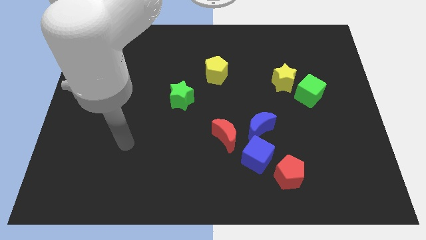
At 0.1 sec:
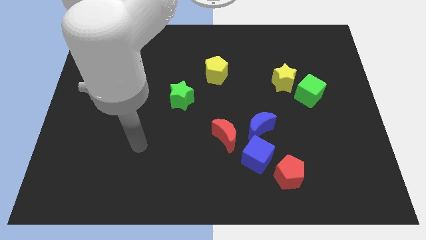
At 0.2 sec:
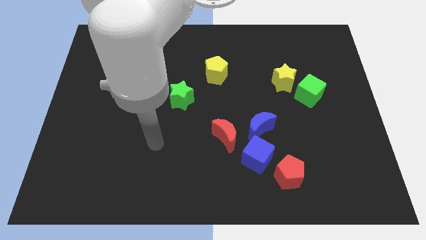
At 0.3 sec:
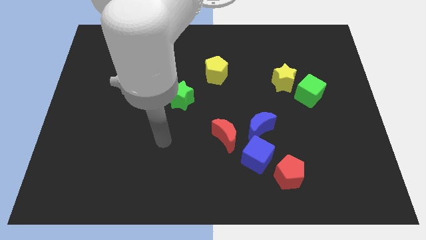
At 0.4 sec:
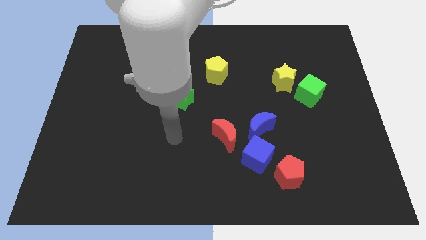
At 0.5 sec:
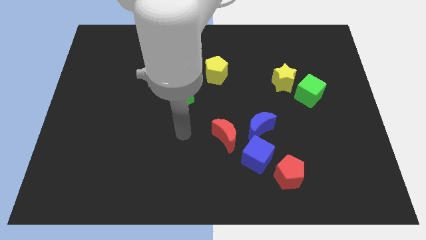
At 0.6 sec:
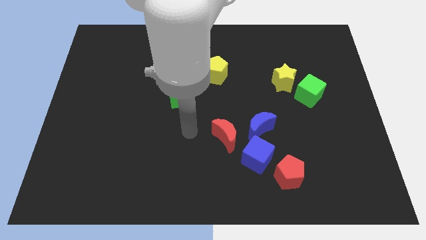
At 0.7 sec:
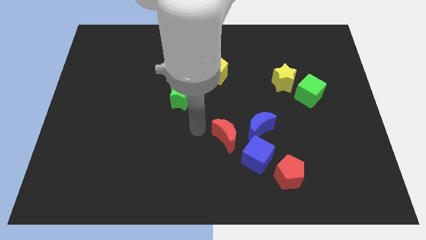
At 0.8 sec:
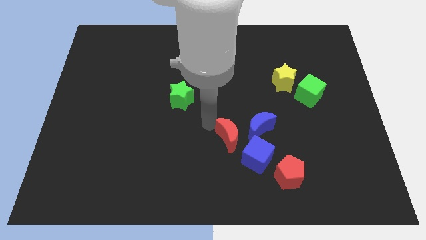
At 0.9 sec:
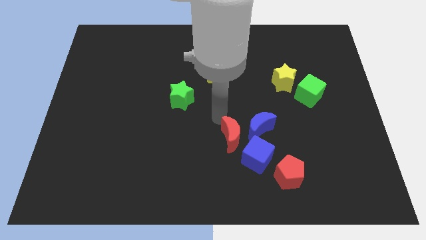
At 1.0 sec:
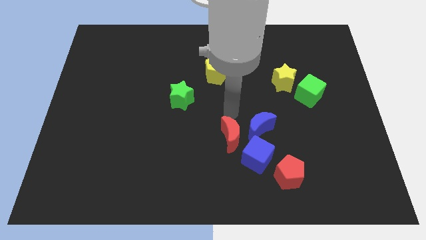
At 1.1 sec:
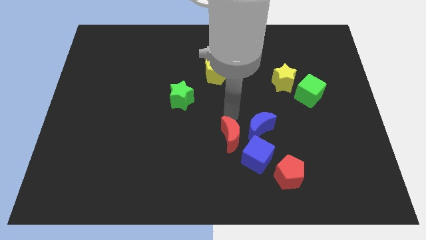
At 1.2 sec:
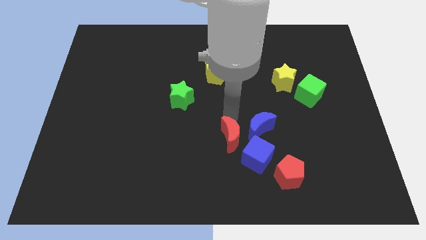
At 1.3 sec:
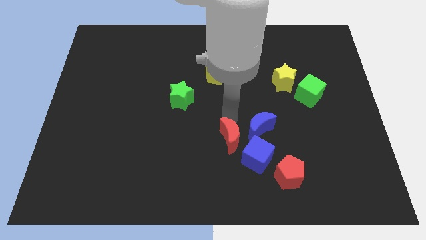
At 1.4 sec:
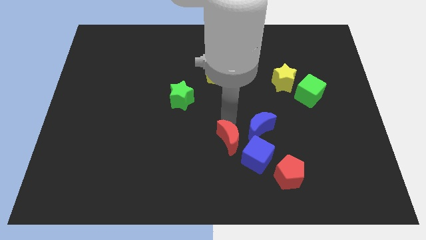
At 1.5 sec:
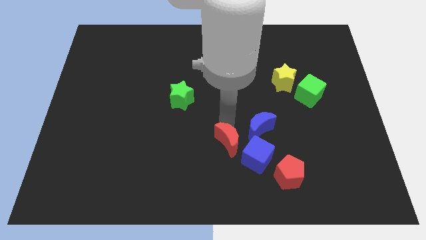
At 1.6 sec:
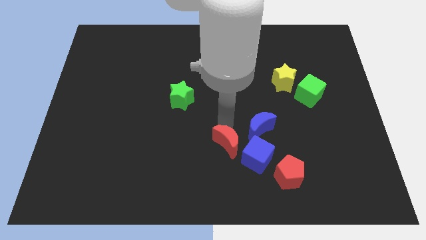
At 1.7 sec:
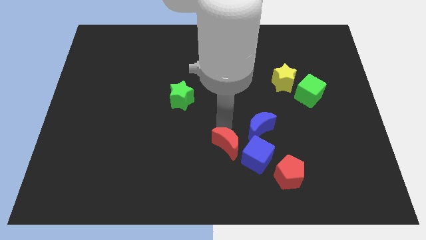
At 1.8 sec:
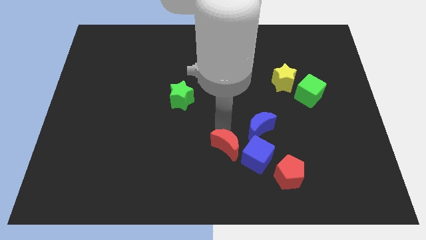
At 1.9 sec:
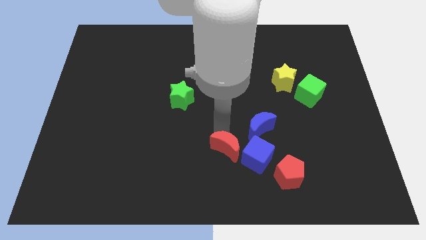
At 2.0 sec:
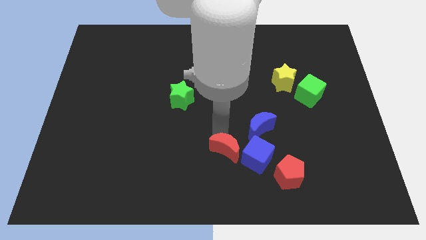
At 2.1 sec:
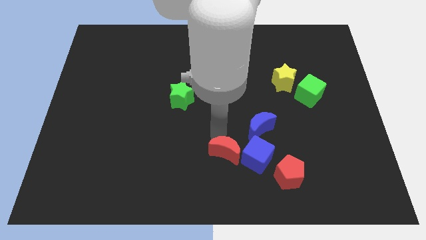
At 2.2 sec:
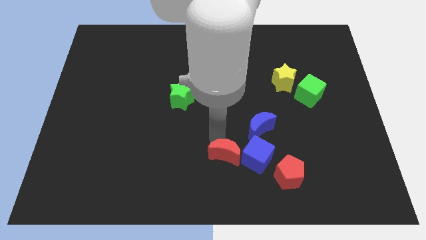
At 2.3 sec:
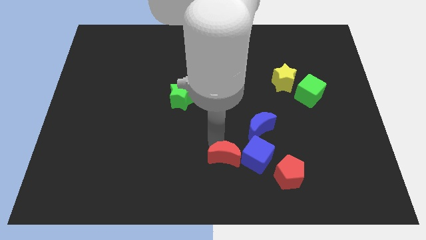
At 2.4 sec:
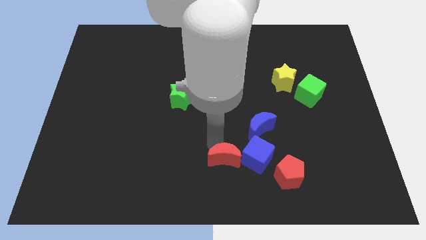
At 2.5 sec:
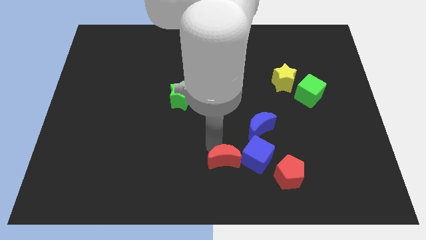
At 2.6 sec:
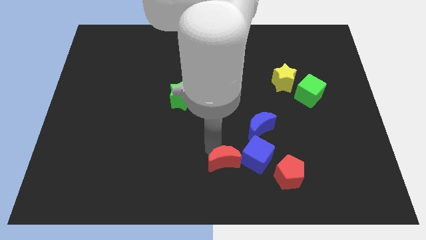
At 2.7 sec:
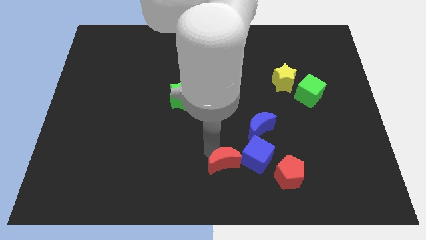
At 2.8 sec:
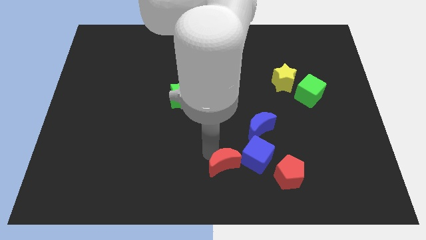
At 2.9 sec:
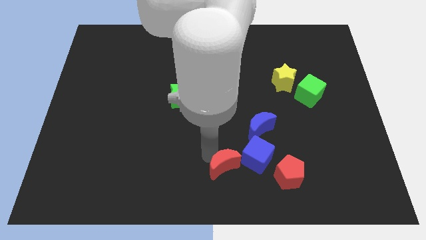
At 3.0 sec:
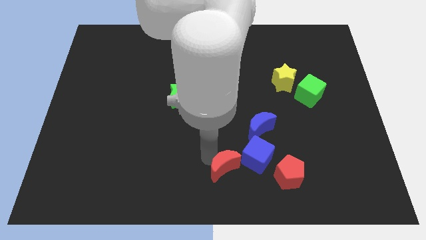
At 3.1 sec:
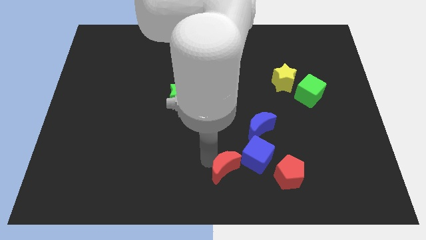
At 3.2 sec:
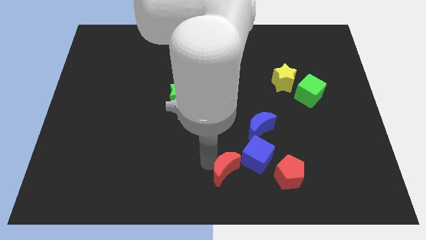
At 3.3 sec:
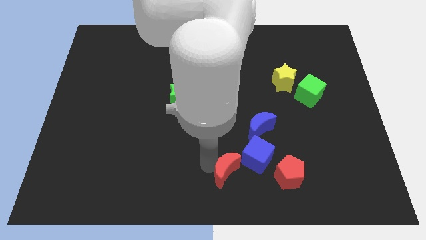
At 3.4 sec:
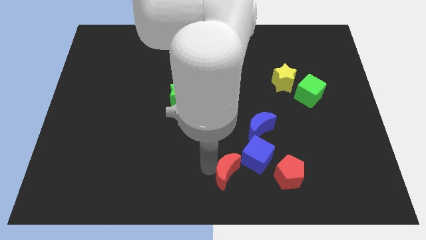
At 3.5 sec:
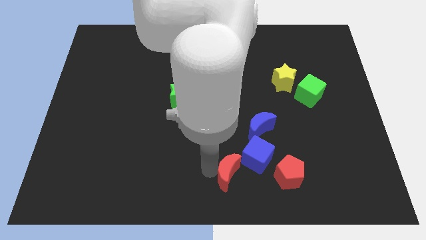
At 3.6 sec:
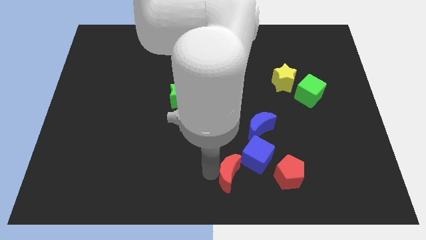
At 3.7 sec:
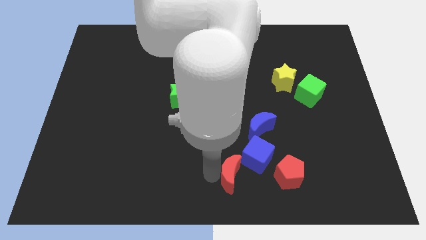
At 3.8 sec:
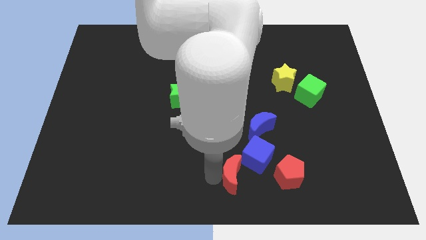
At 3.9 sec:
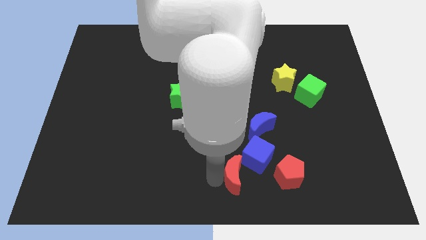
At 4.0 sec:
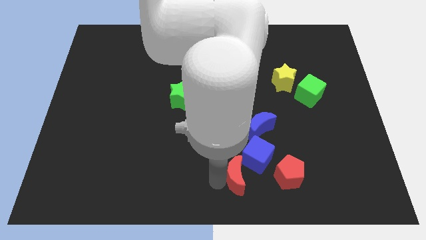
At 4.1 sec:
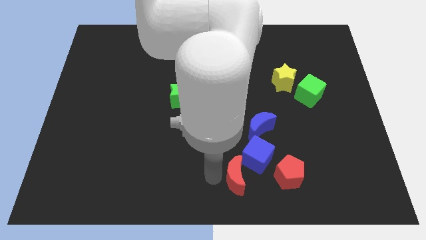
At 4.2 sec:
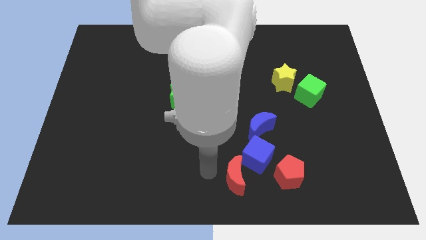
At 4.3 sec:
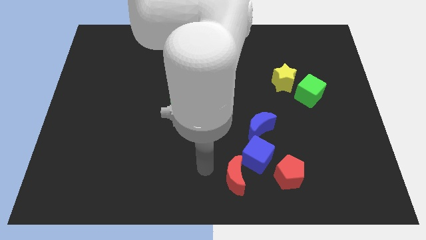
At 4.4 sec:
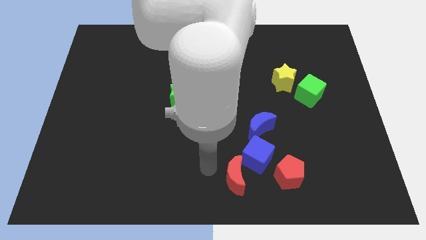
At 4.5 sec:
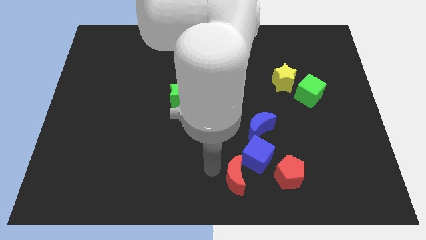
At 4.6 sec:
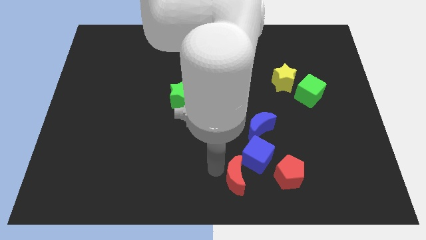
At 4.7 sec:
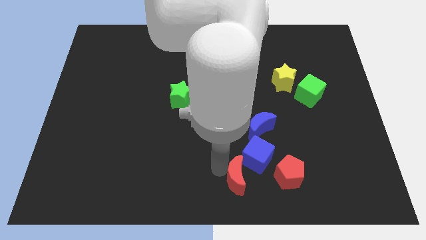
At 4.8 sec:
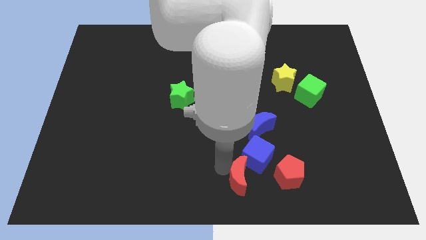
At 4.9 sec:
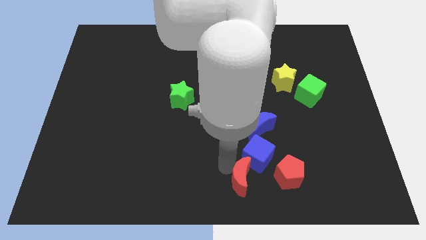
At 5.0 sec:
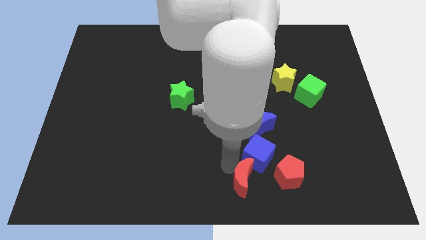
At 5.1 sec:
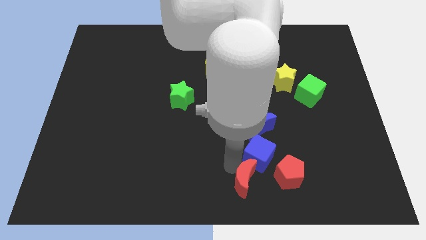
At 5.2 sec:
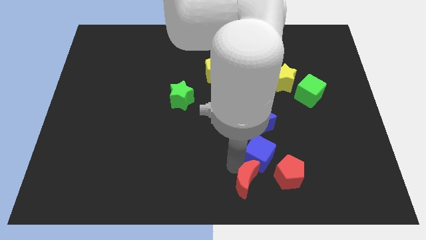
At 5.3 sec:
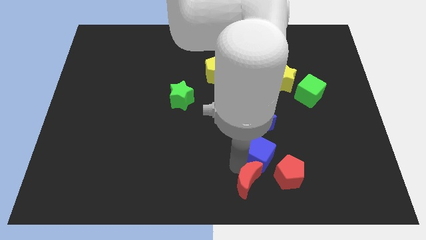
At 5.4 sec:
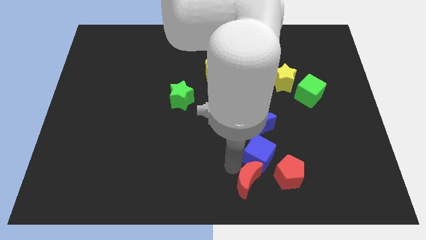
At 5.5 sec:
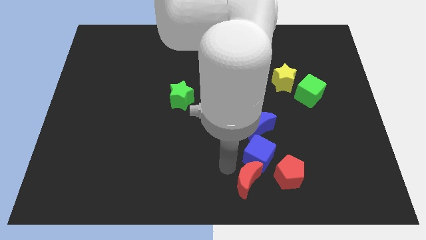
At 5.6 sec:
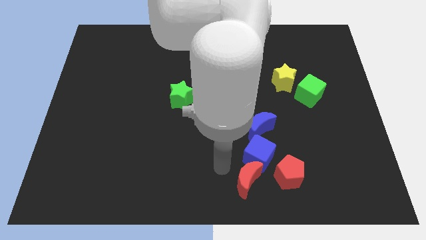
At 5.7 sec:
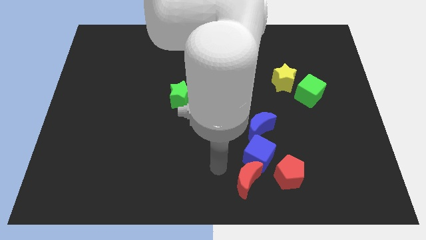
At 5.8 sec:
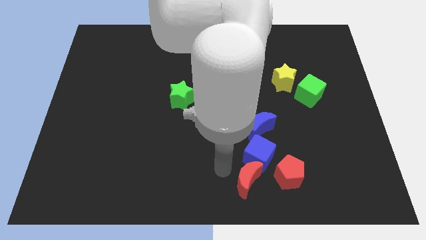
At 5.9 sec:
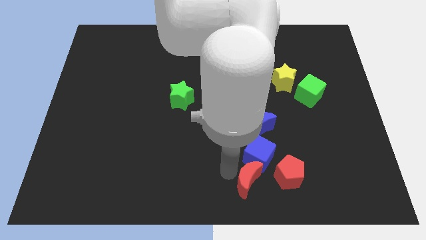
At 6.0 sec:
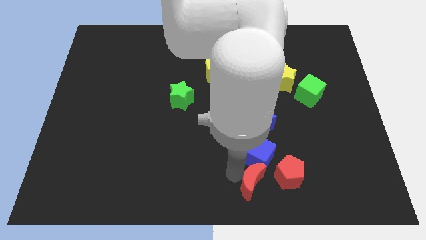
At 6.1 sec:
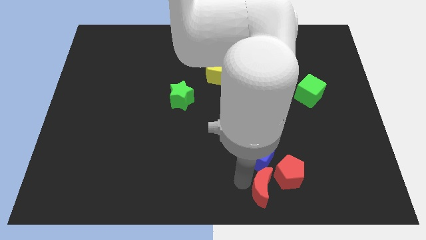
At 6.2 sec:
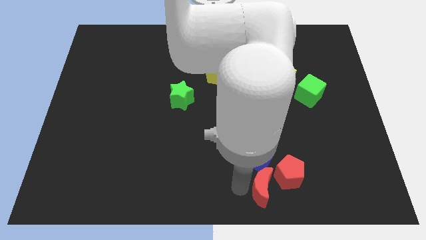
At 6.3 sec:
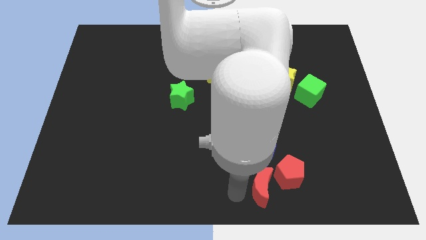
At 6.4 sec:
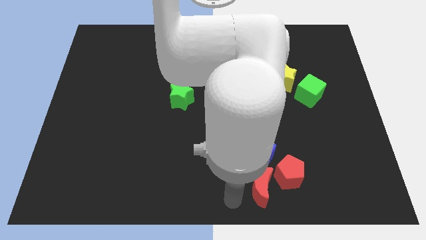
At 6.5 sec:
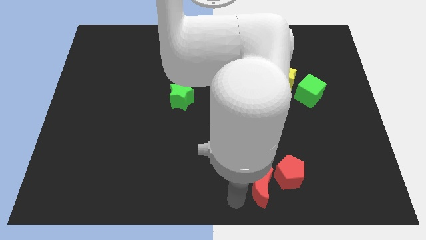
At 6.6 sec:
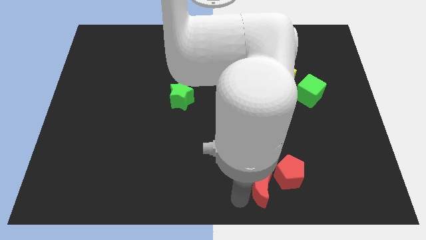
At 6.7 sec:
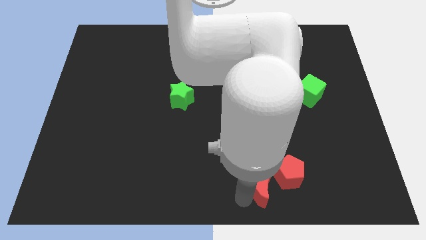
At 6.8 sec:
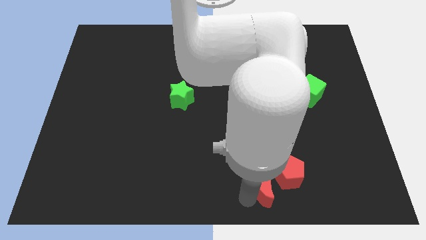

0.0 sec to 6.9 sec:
push the red moon next to the red pentagon
